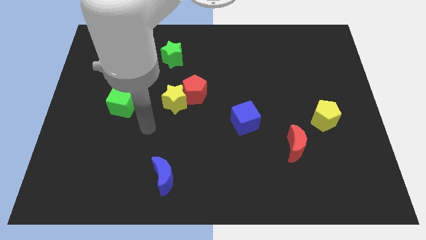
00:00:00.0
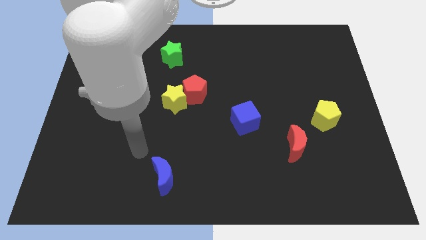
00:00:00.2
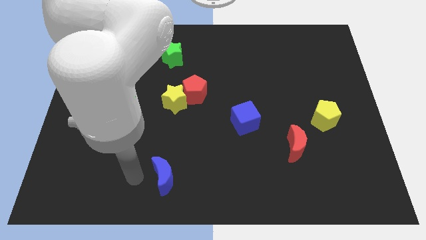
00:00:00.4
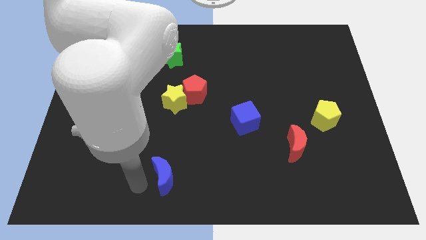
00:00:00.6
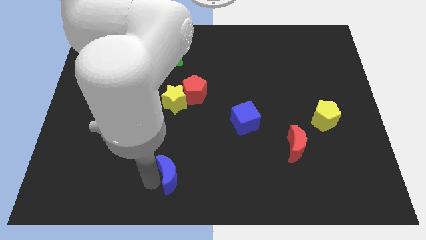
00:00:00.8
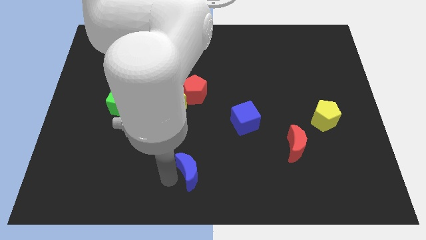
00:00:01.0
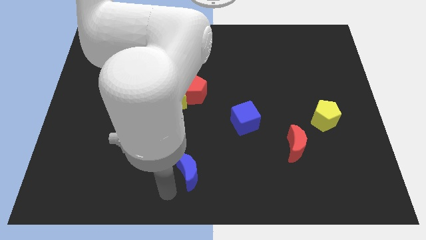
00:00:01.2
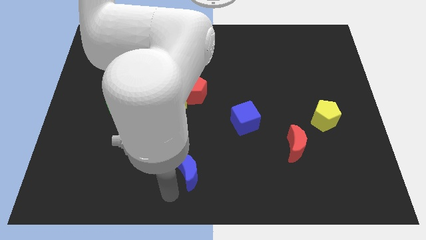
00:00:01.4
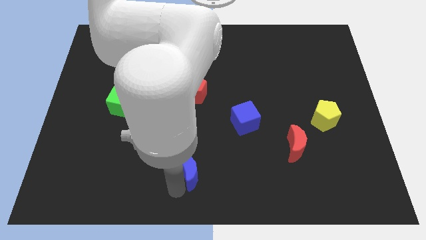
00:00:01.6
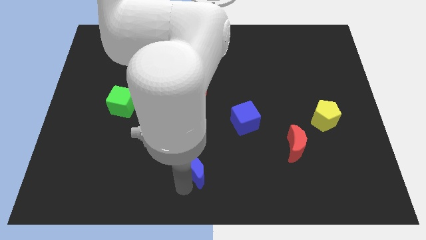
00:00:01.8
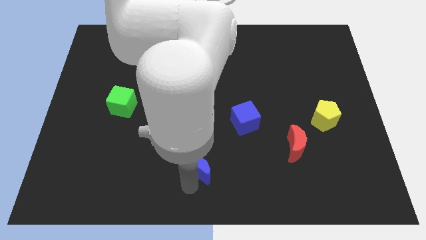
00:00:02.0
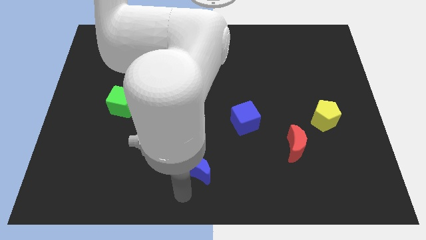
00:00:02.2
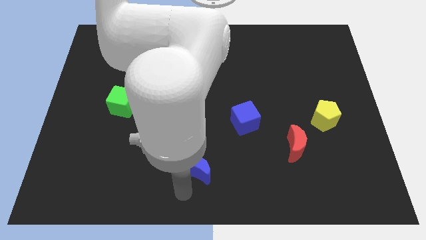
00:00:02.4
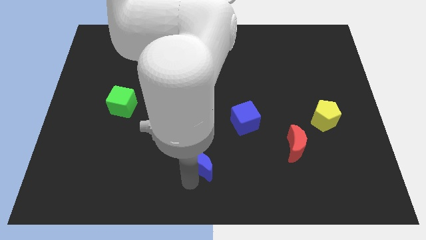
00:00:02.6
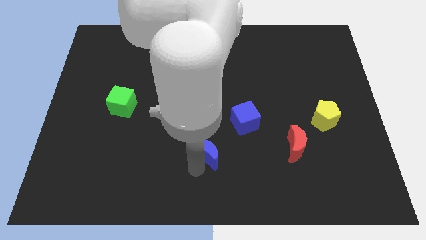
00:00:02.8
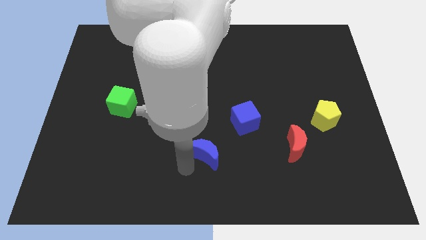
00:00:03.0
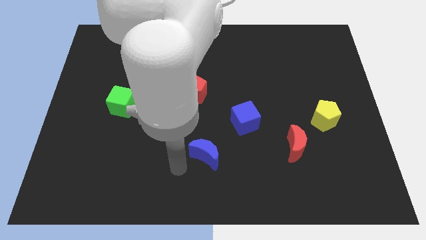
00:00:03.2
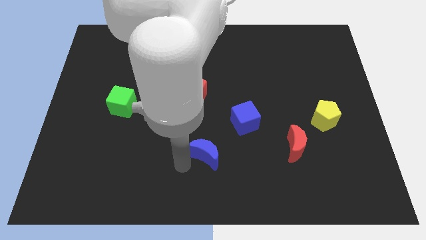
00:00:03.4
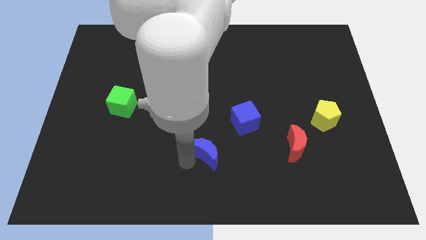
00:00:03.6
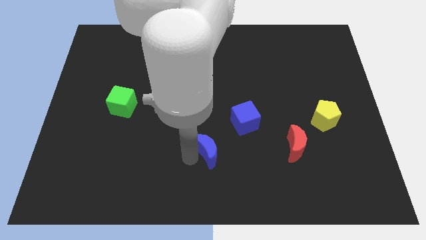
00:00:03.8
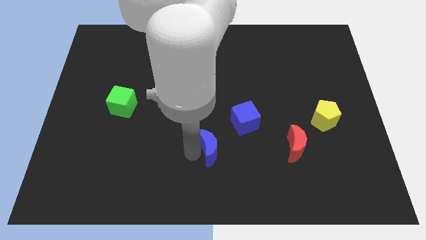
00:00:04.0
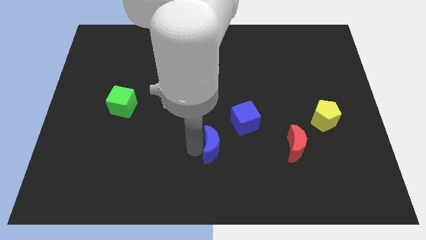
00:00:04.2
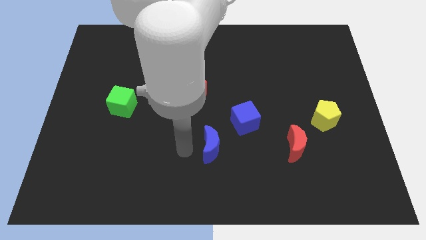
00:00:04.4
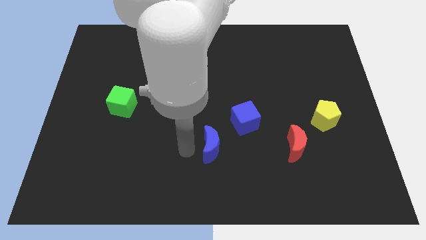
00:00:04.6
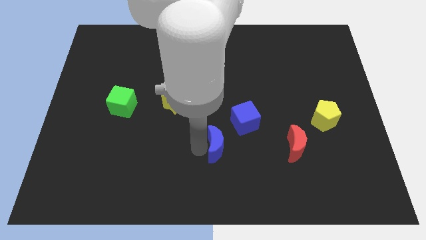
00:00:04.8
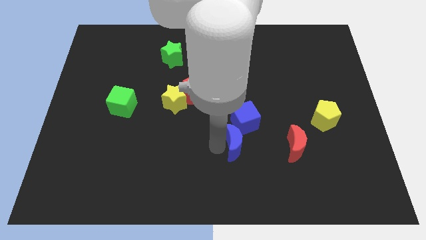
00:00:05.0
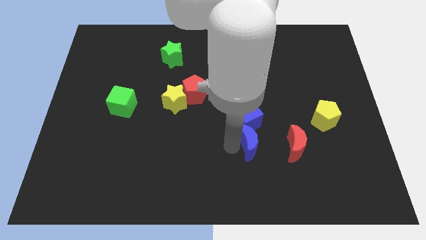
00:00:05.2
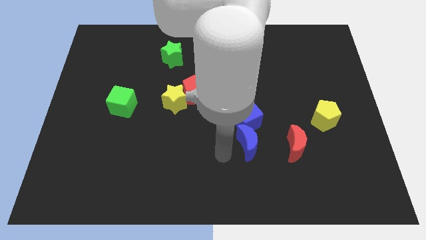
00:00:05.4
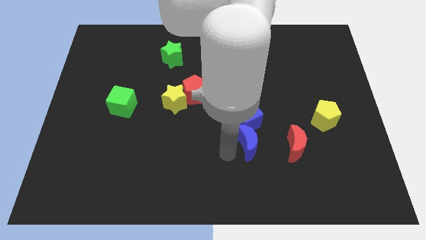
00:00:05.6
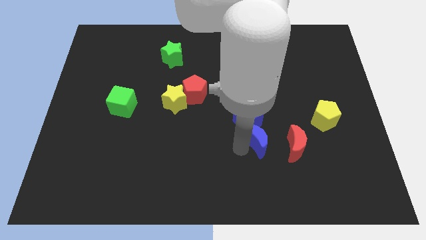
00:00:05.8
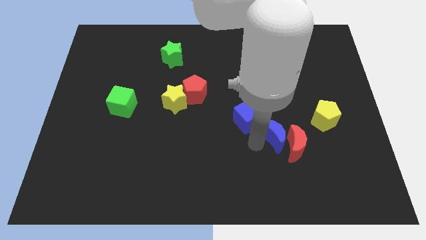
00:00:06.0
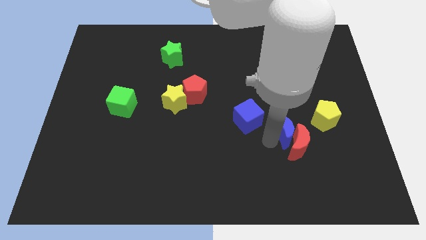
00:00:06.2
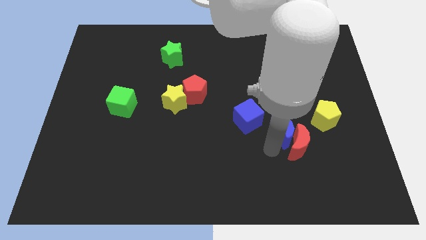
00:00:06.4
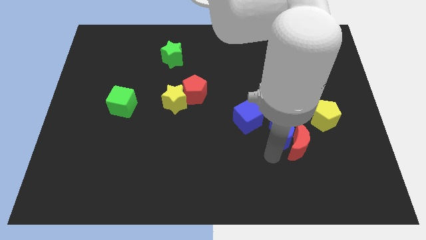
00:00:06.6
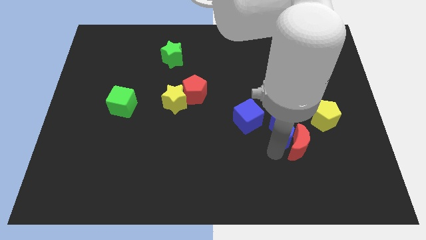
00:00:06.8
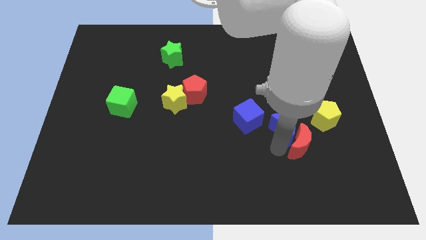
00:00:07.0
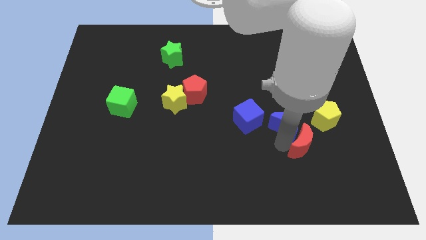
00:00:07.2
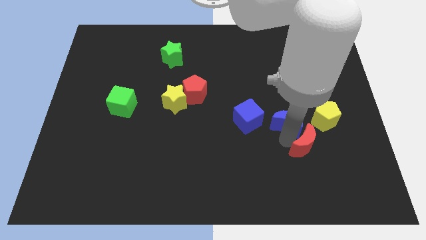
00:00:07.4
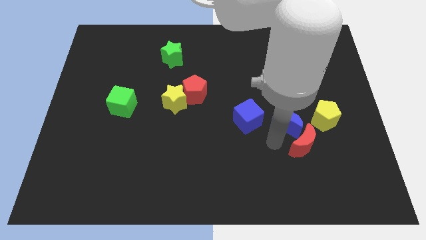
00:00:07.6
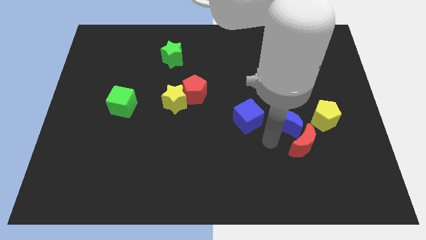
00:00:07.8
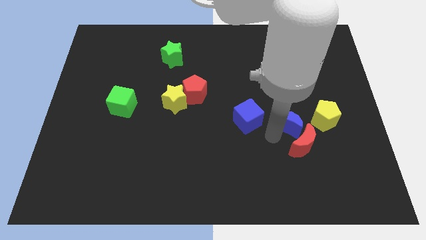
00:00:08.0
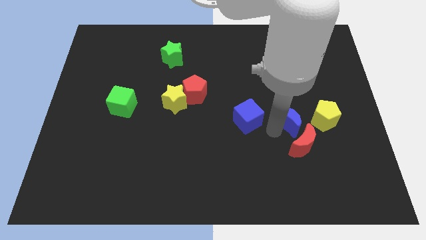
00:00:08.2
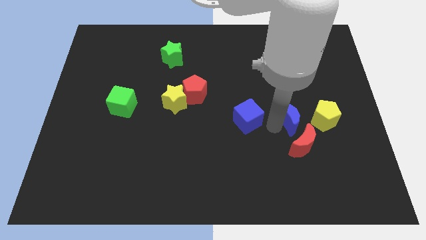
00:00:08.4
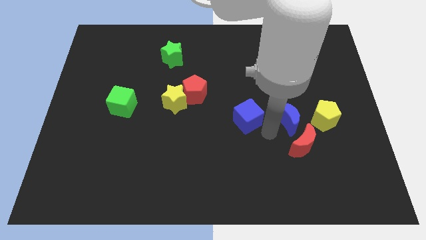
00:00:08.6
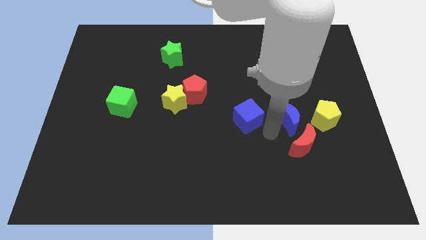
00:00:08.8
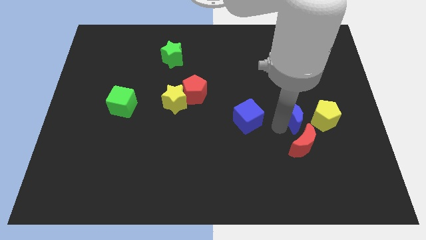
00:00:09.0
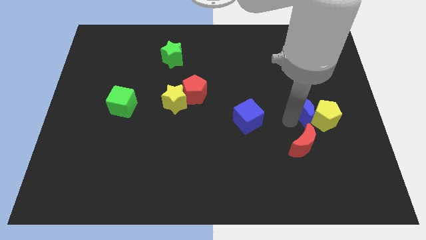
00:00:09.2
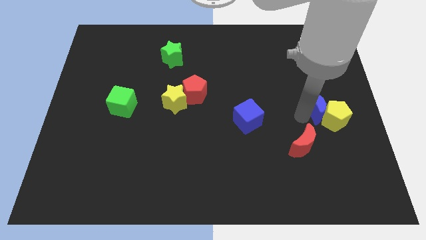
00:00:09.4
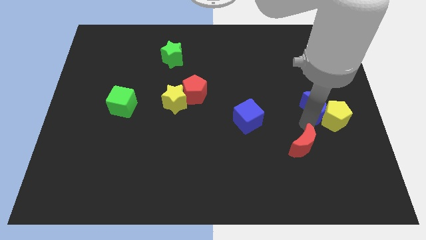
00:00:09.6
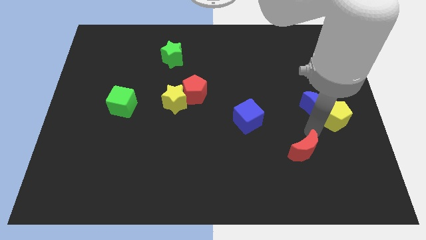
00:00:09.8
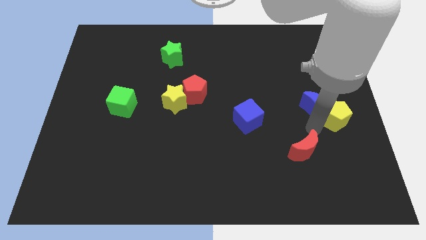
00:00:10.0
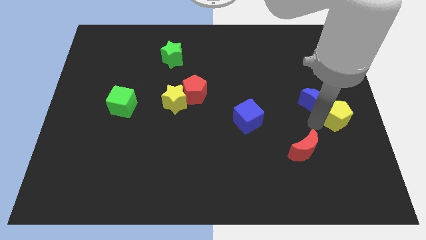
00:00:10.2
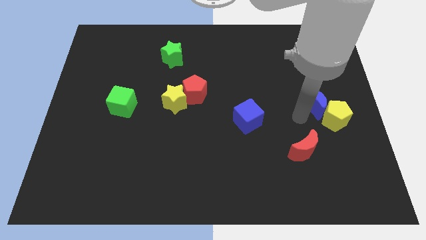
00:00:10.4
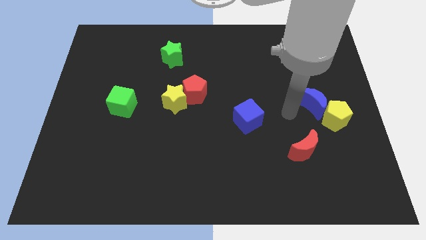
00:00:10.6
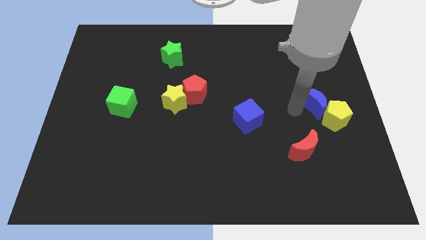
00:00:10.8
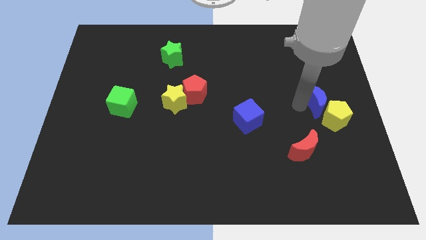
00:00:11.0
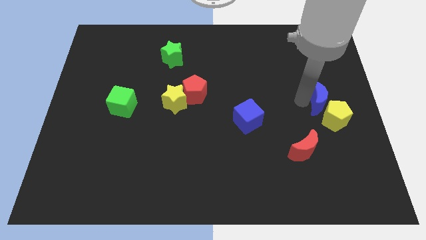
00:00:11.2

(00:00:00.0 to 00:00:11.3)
put the blue moon to the right side
